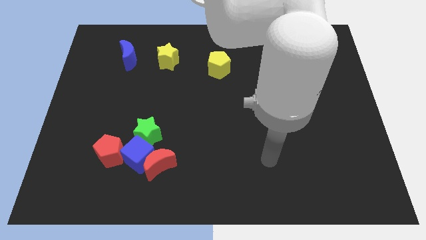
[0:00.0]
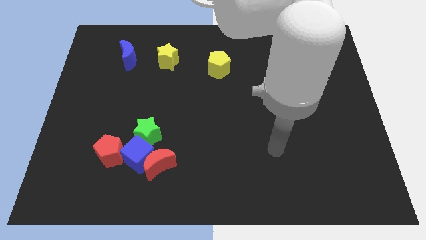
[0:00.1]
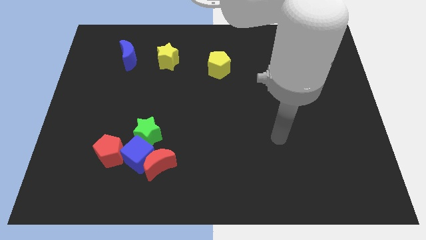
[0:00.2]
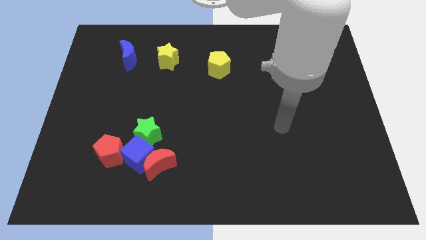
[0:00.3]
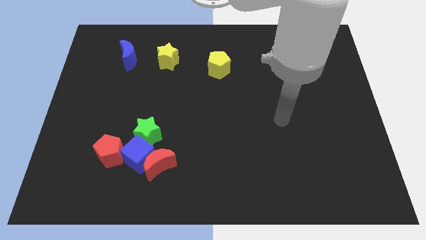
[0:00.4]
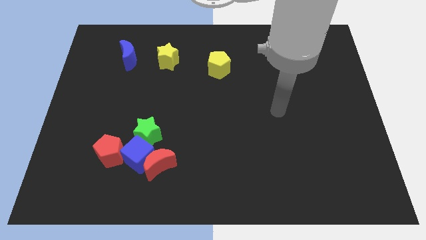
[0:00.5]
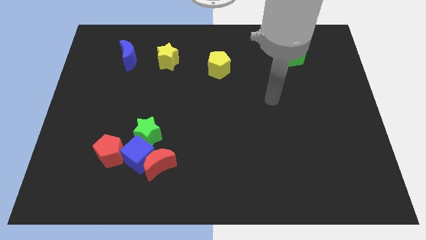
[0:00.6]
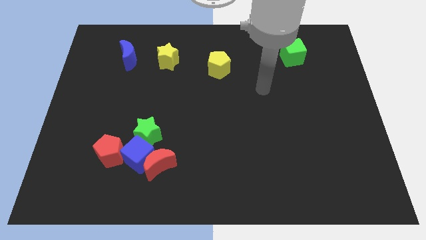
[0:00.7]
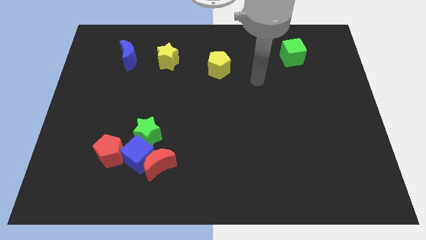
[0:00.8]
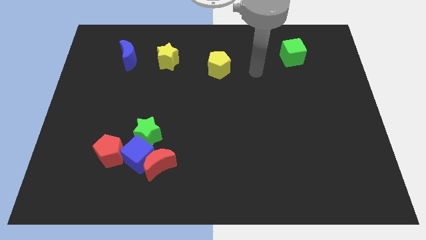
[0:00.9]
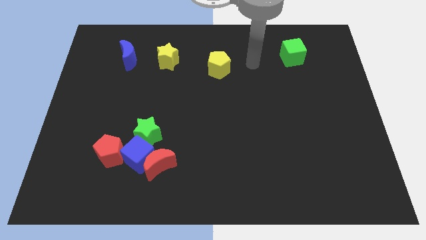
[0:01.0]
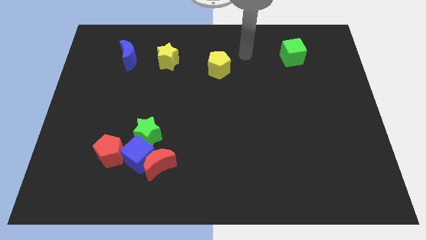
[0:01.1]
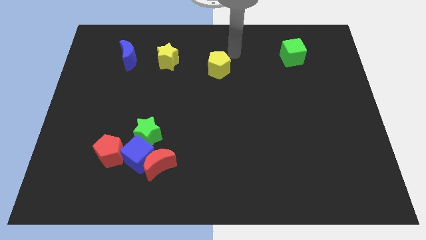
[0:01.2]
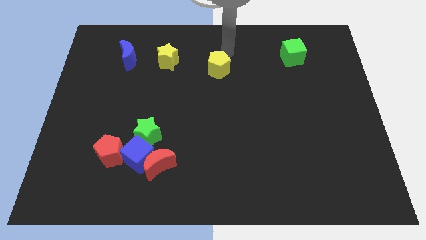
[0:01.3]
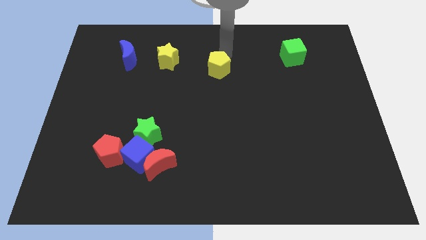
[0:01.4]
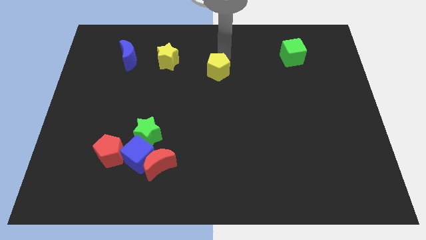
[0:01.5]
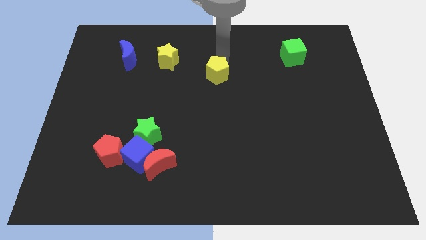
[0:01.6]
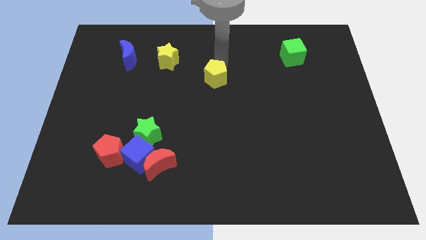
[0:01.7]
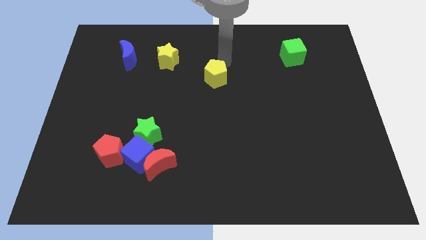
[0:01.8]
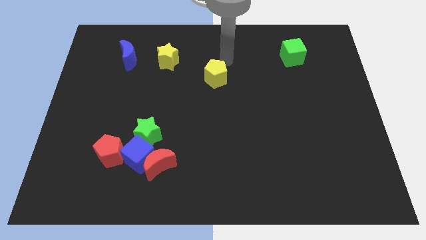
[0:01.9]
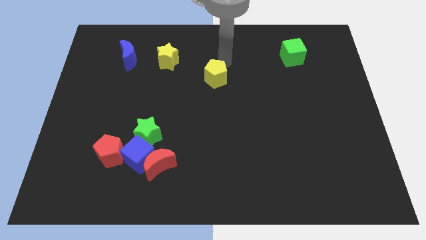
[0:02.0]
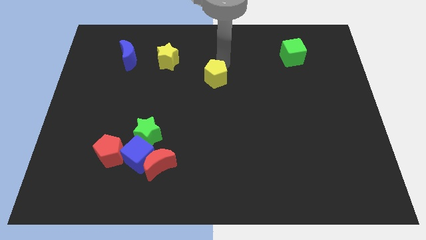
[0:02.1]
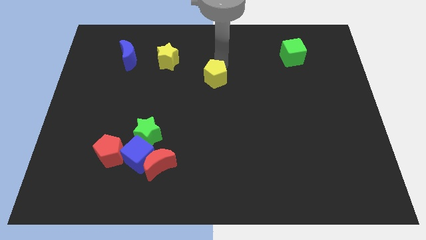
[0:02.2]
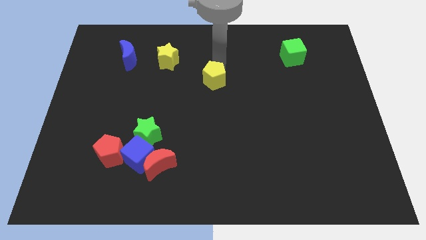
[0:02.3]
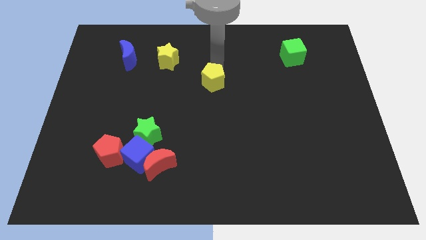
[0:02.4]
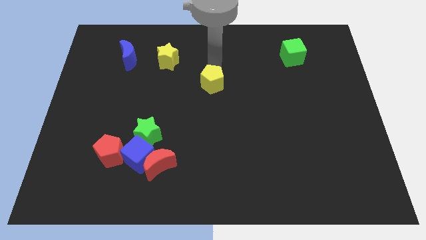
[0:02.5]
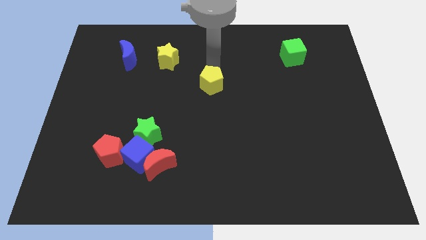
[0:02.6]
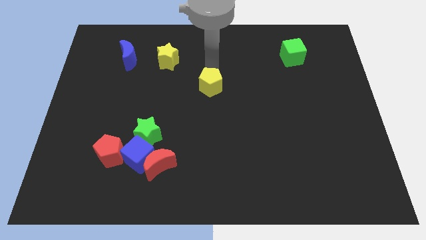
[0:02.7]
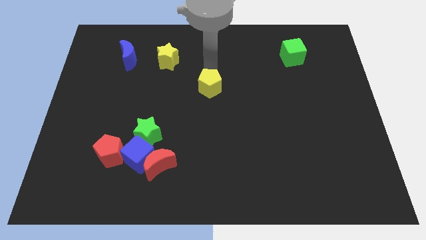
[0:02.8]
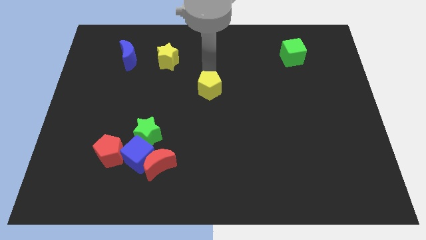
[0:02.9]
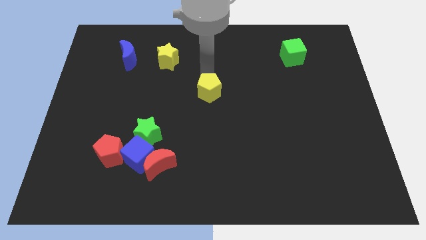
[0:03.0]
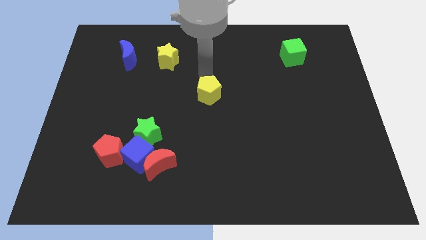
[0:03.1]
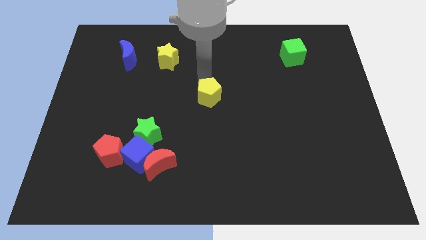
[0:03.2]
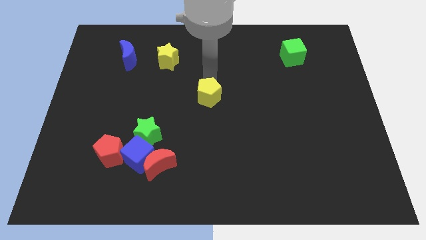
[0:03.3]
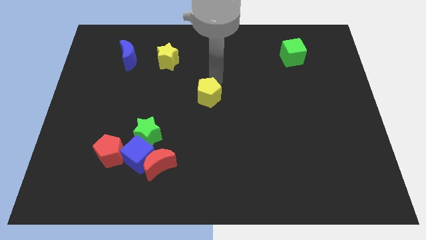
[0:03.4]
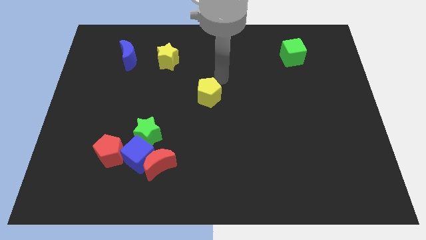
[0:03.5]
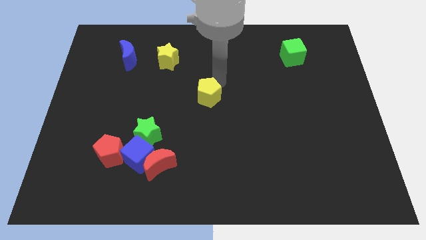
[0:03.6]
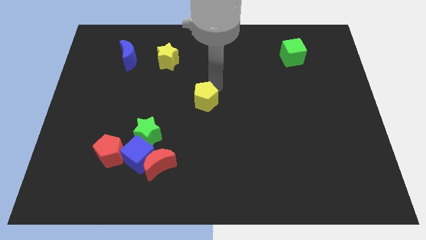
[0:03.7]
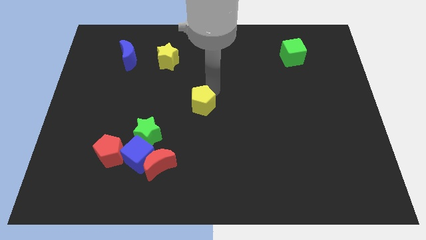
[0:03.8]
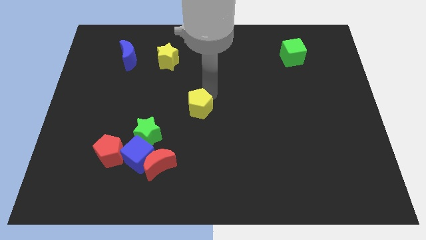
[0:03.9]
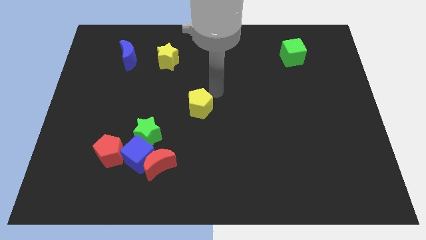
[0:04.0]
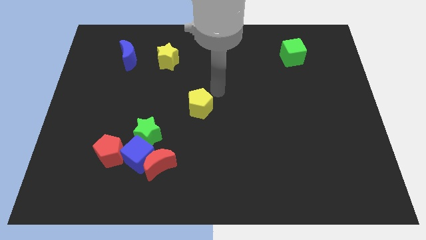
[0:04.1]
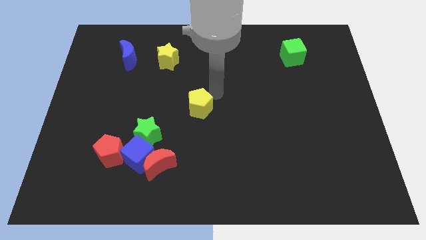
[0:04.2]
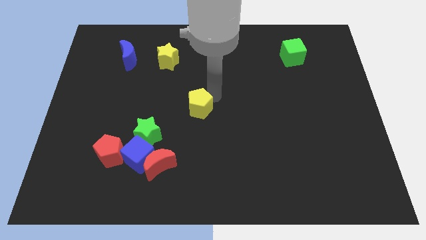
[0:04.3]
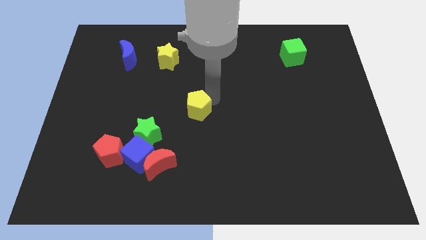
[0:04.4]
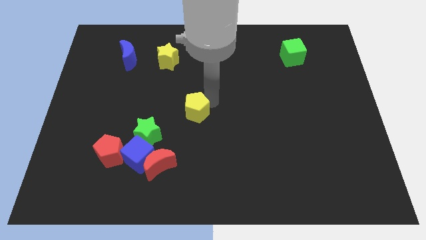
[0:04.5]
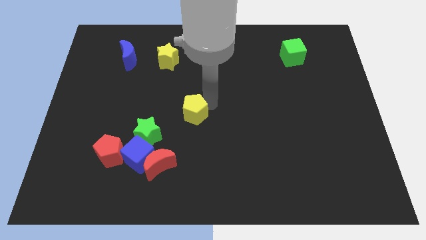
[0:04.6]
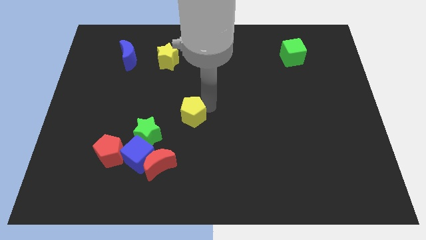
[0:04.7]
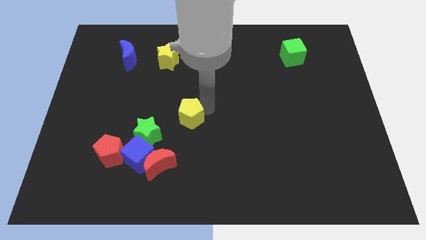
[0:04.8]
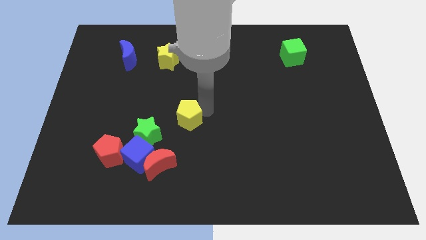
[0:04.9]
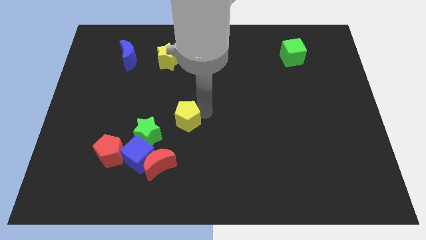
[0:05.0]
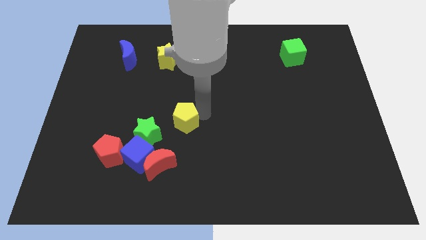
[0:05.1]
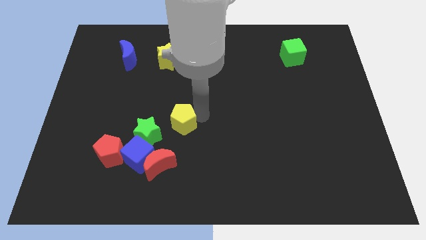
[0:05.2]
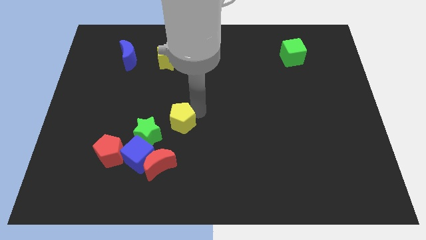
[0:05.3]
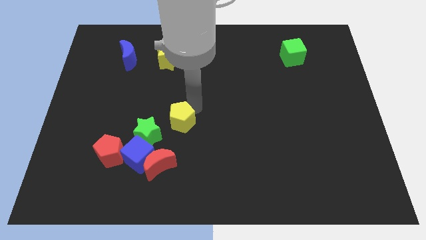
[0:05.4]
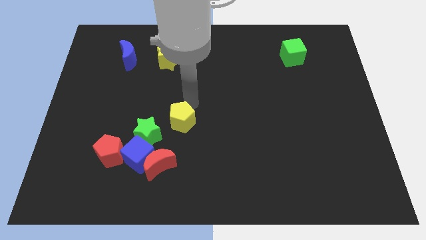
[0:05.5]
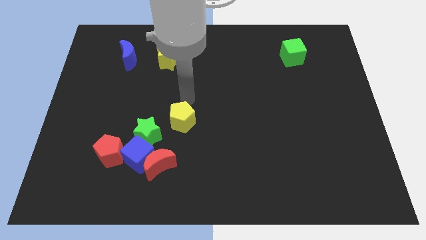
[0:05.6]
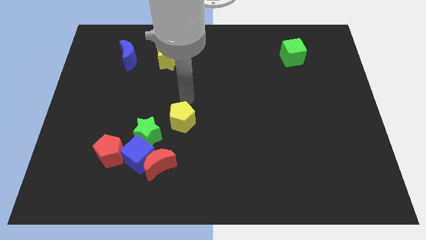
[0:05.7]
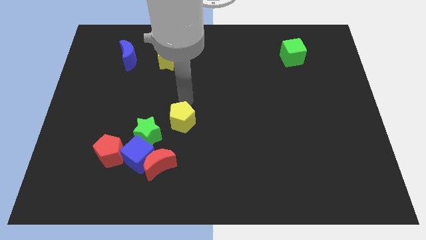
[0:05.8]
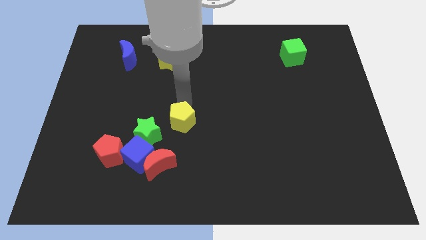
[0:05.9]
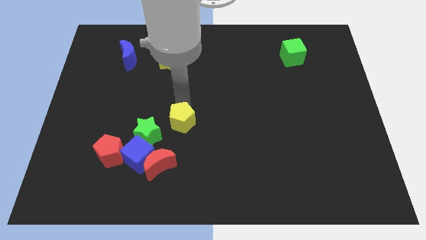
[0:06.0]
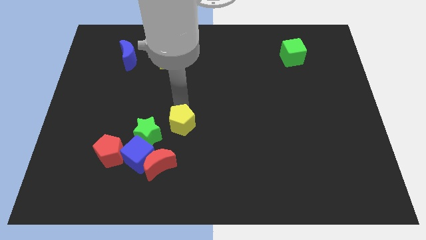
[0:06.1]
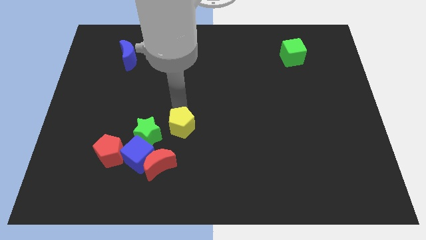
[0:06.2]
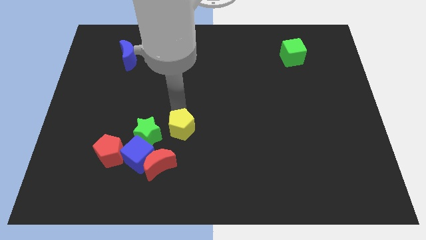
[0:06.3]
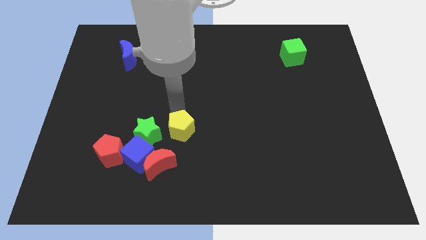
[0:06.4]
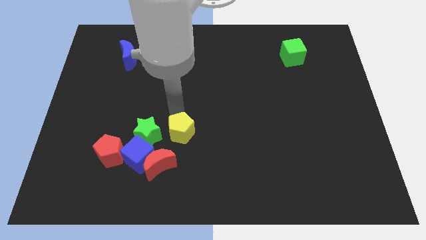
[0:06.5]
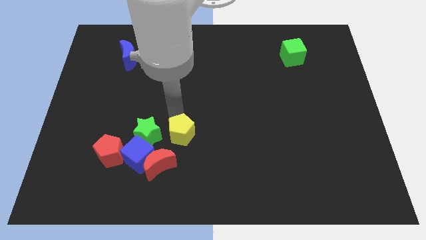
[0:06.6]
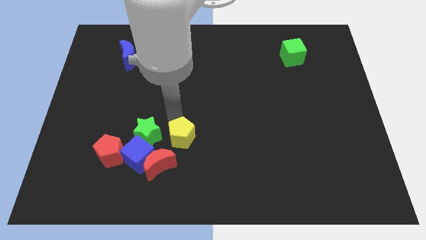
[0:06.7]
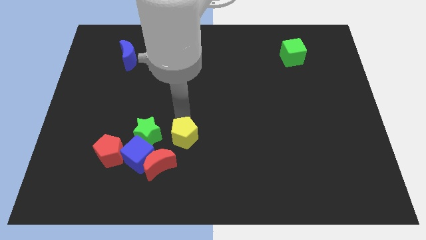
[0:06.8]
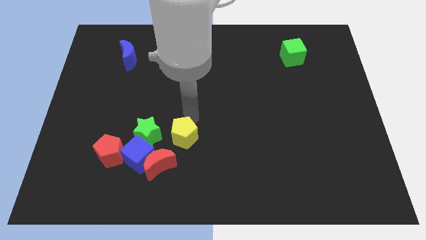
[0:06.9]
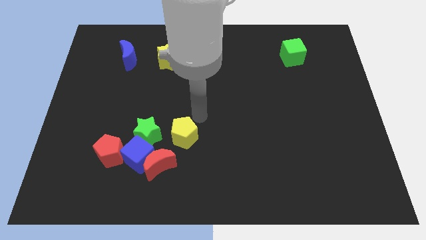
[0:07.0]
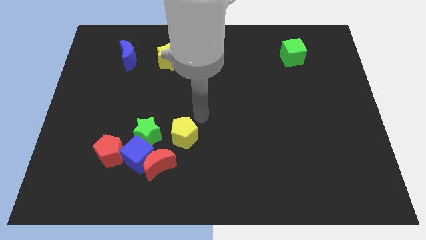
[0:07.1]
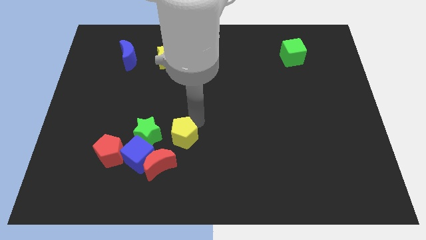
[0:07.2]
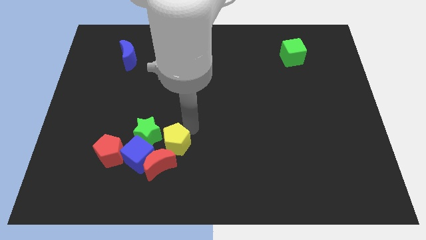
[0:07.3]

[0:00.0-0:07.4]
push the yellow pentagon close to the red moon

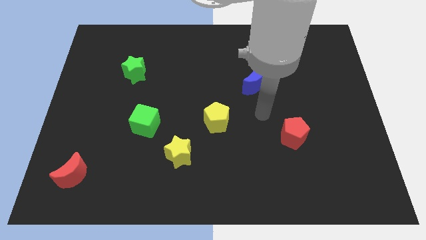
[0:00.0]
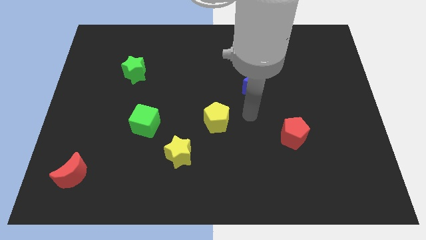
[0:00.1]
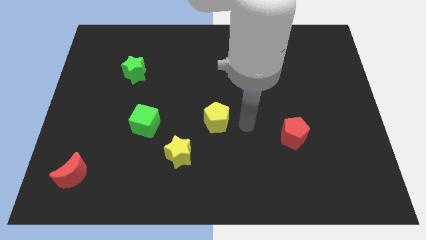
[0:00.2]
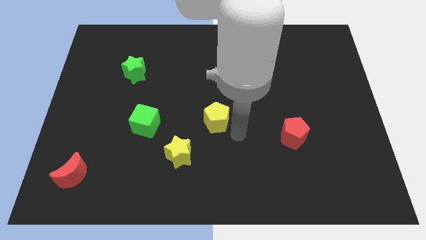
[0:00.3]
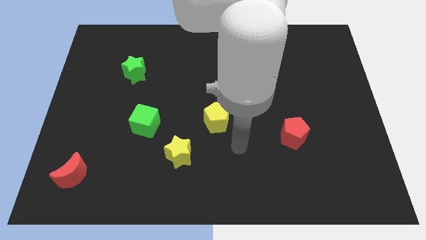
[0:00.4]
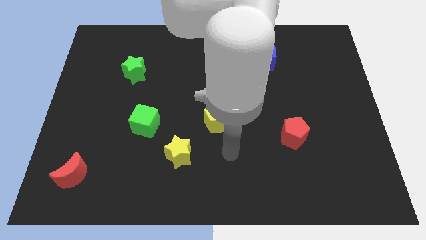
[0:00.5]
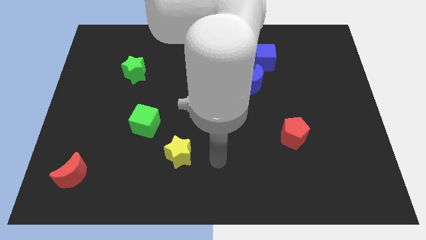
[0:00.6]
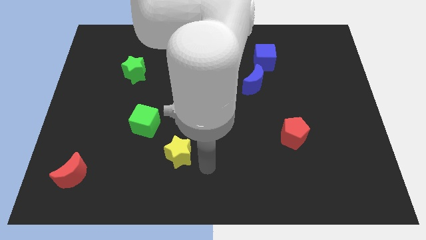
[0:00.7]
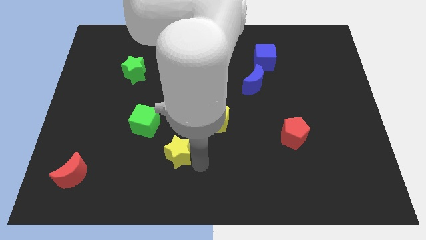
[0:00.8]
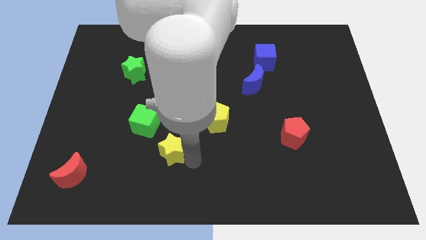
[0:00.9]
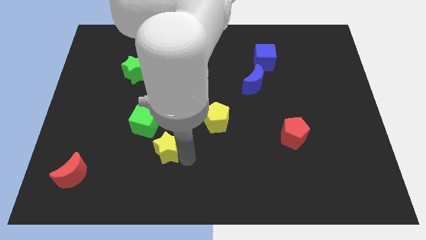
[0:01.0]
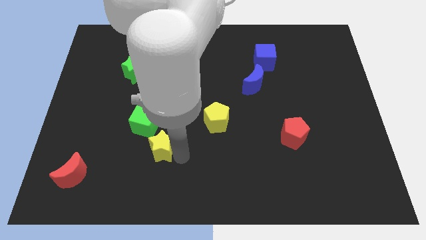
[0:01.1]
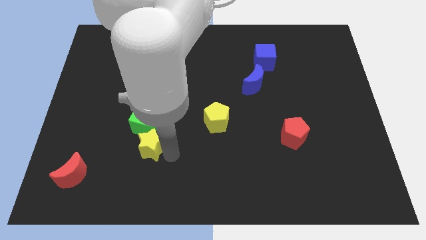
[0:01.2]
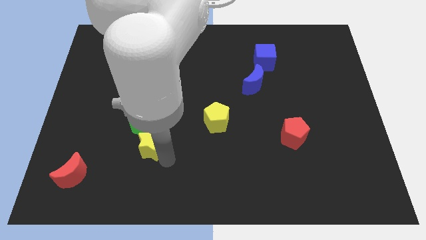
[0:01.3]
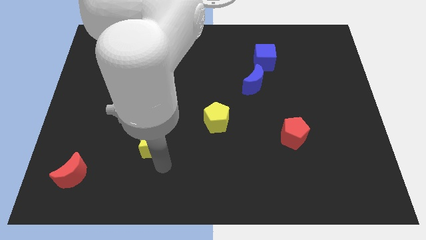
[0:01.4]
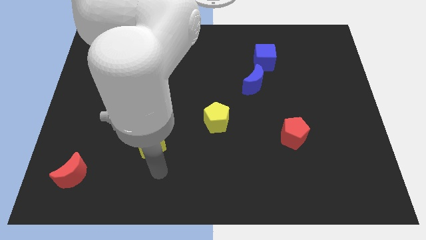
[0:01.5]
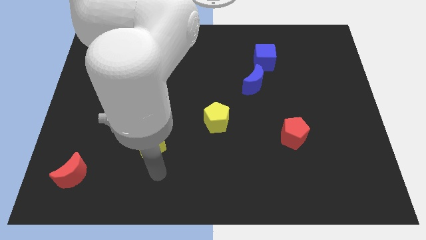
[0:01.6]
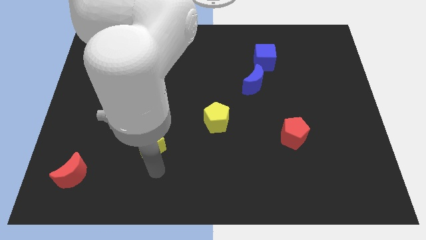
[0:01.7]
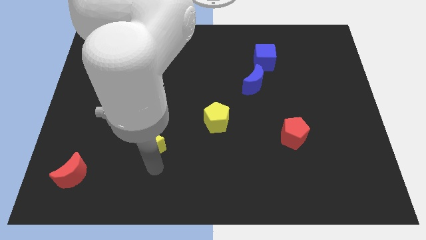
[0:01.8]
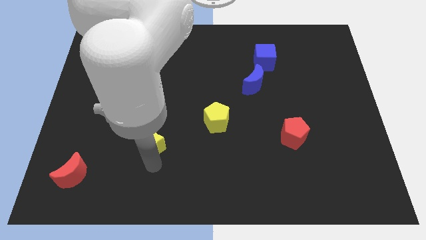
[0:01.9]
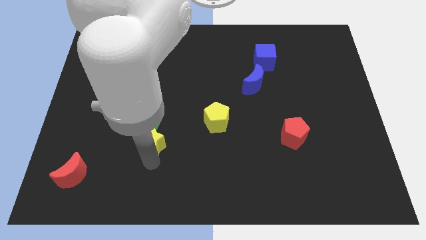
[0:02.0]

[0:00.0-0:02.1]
push the yellow star to the green cube
